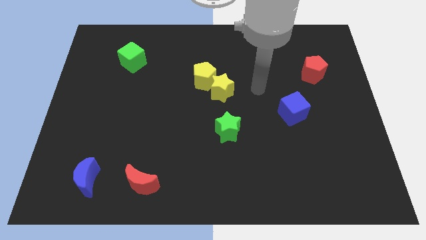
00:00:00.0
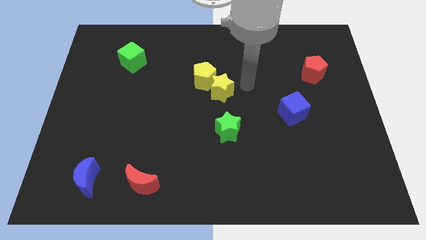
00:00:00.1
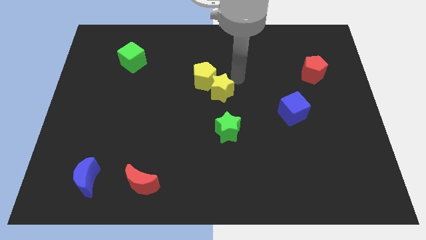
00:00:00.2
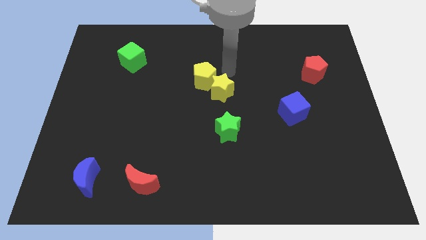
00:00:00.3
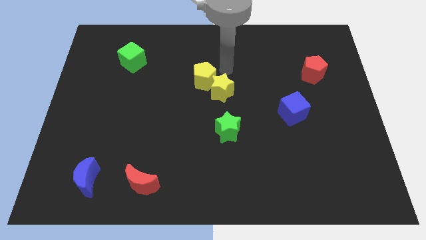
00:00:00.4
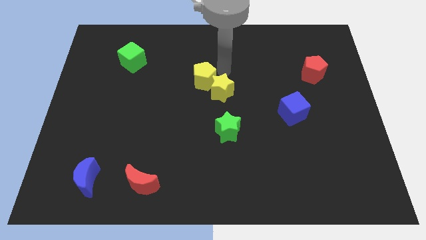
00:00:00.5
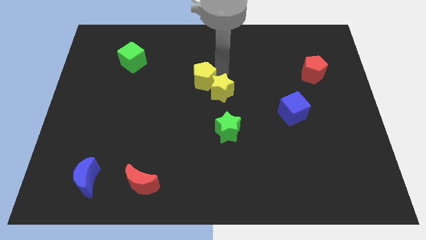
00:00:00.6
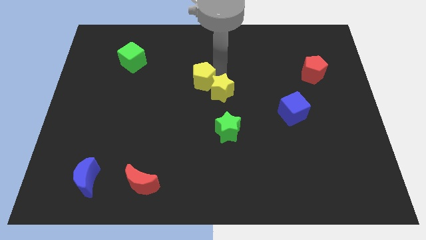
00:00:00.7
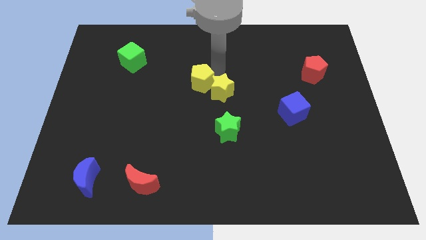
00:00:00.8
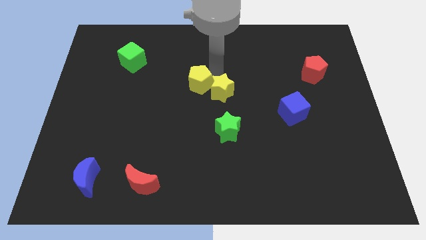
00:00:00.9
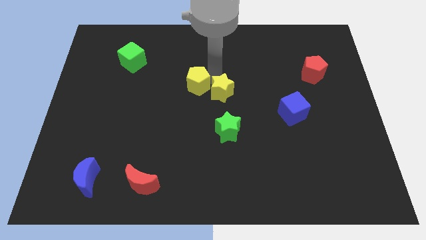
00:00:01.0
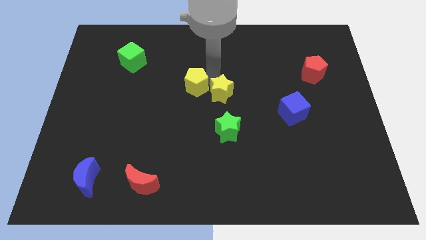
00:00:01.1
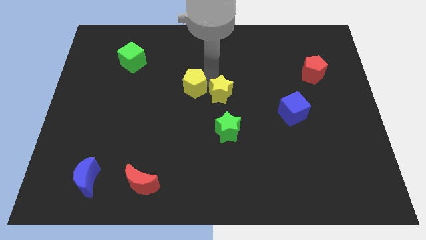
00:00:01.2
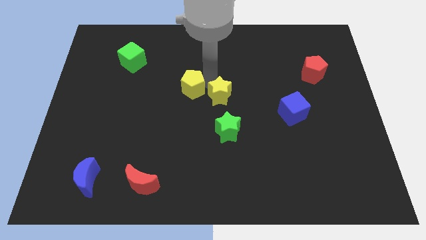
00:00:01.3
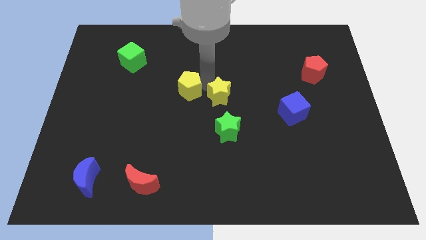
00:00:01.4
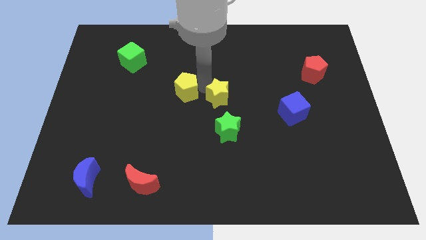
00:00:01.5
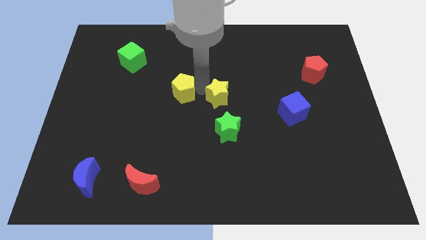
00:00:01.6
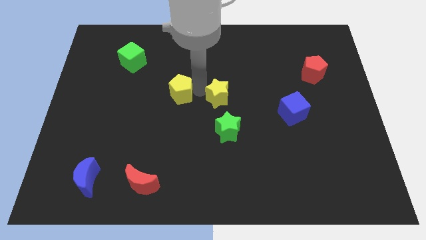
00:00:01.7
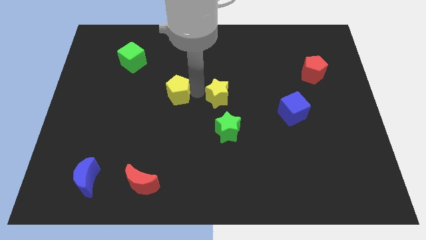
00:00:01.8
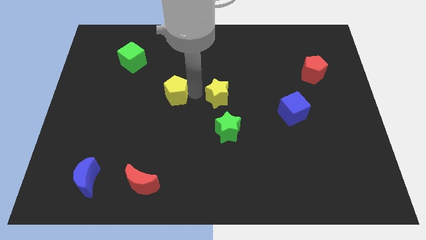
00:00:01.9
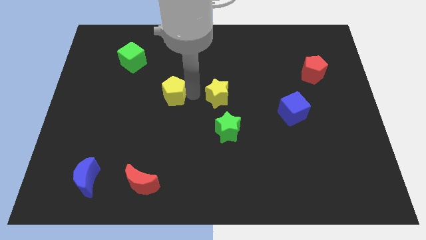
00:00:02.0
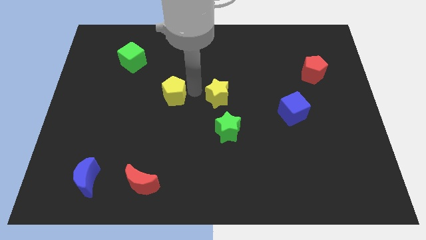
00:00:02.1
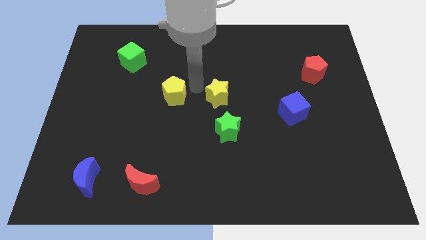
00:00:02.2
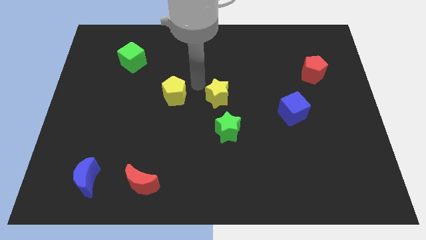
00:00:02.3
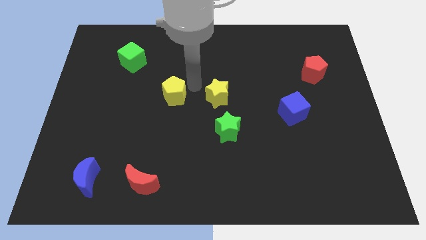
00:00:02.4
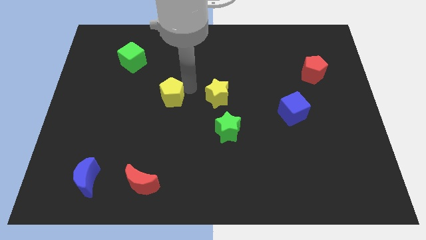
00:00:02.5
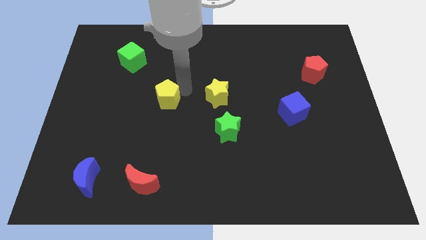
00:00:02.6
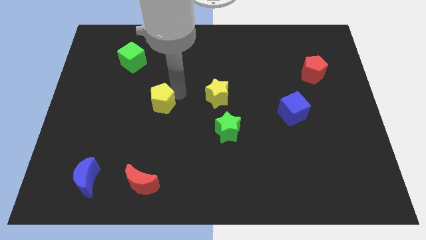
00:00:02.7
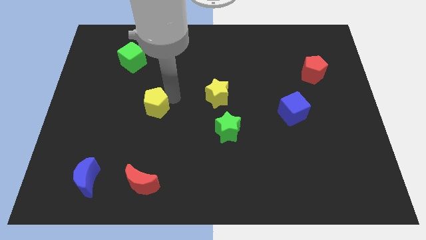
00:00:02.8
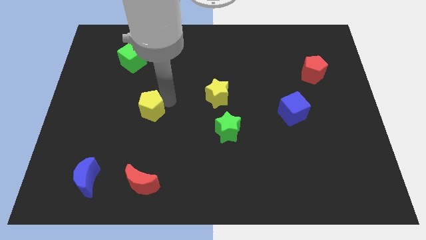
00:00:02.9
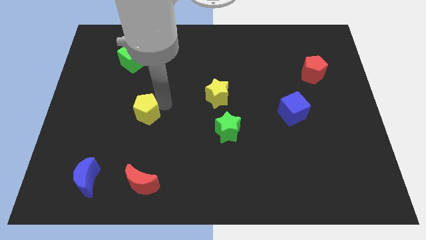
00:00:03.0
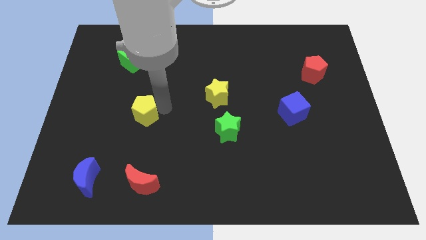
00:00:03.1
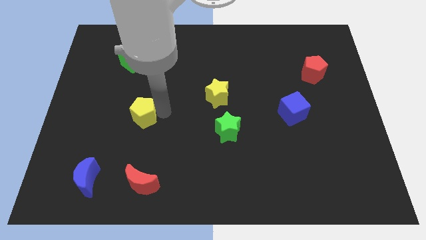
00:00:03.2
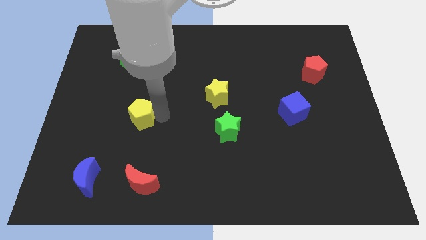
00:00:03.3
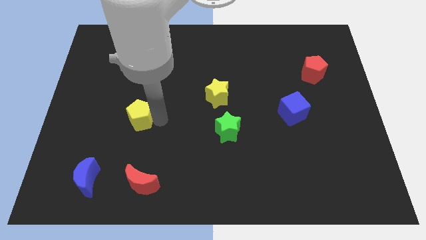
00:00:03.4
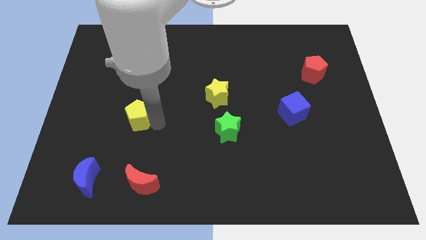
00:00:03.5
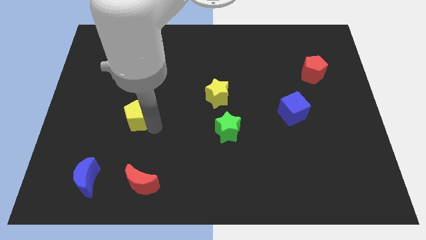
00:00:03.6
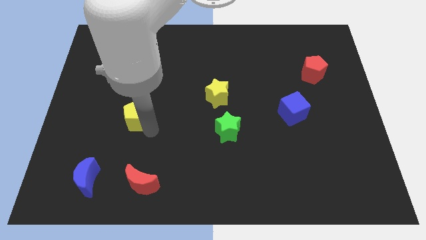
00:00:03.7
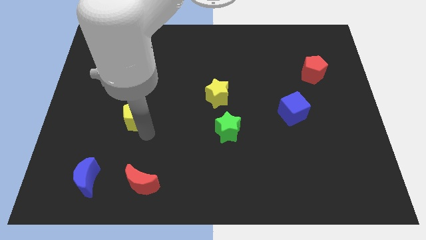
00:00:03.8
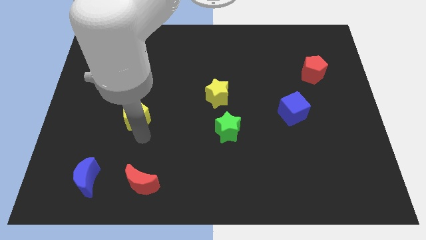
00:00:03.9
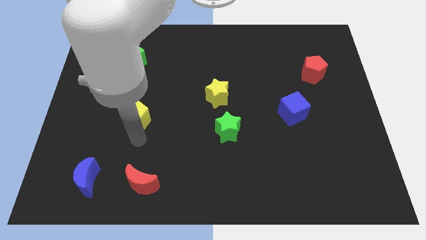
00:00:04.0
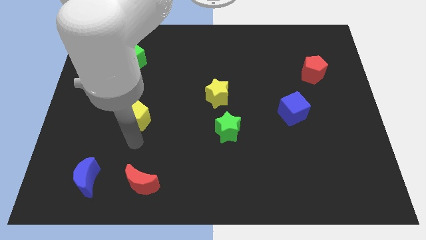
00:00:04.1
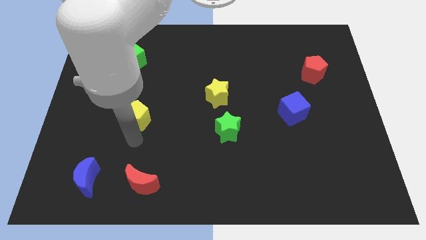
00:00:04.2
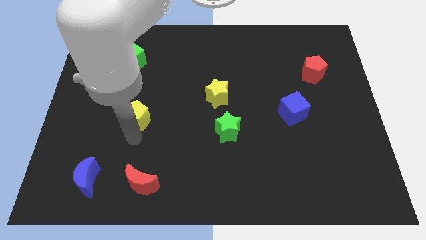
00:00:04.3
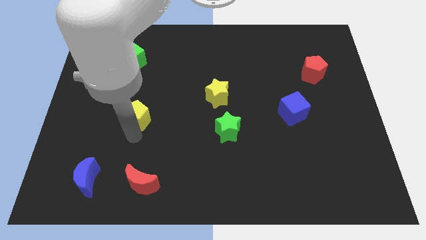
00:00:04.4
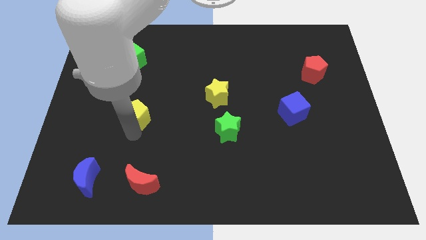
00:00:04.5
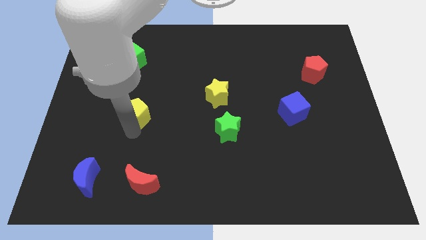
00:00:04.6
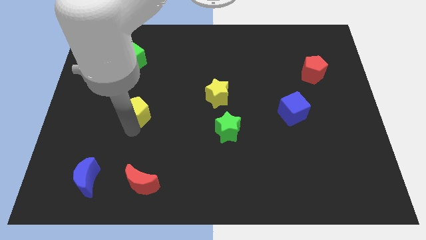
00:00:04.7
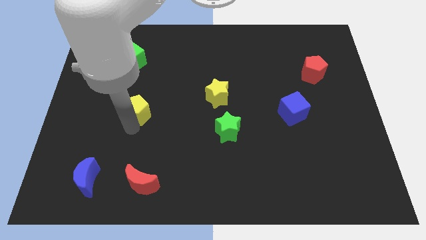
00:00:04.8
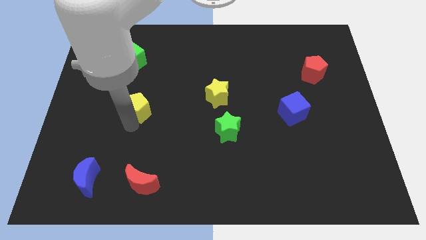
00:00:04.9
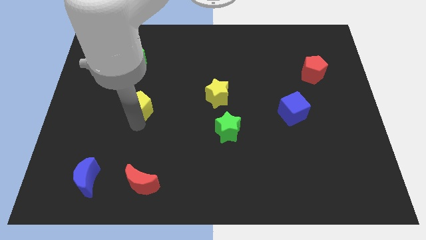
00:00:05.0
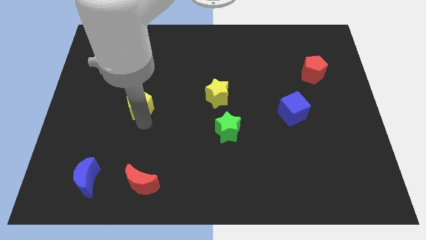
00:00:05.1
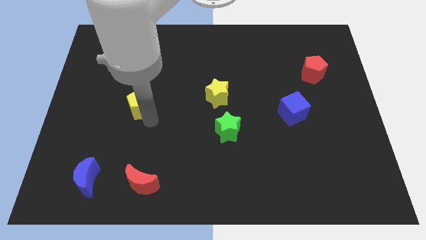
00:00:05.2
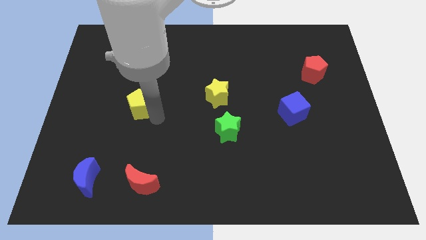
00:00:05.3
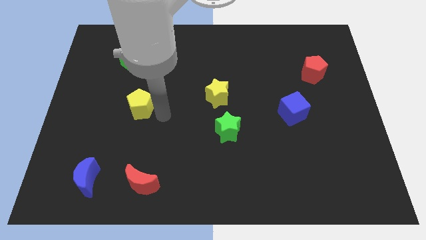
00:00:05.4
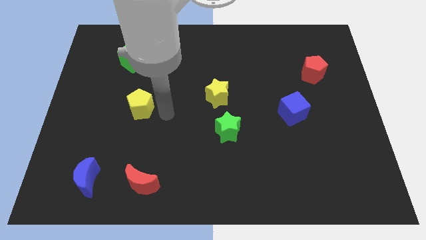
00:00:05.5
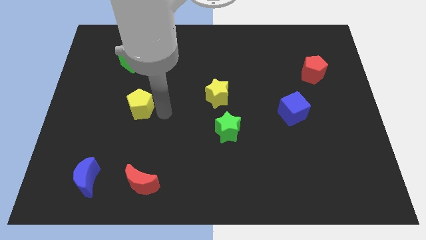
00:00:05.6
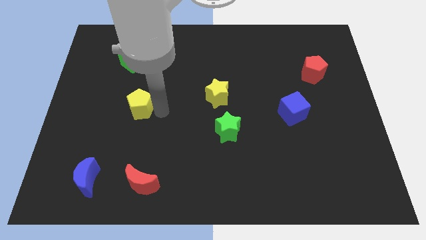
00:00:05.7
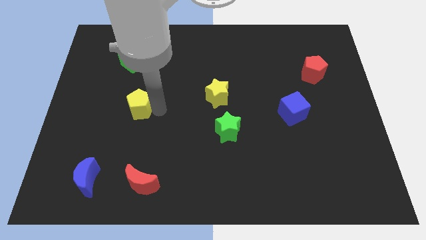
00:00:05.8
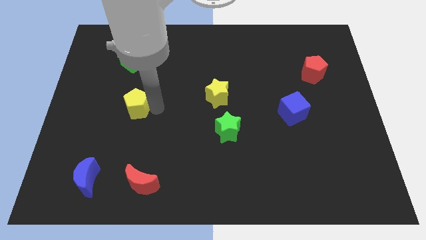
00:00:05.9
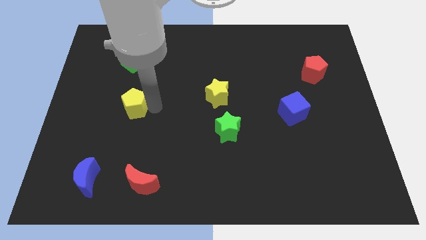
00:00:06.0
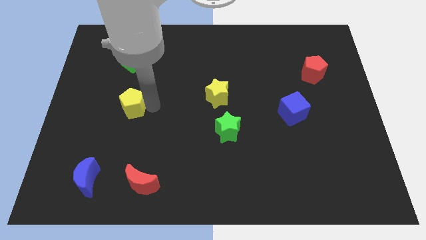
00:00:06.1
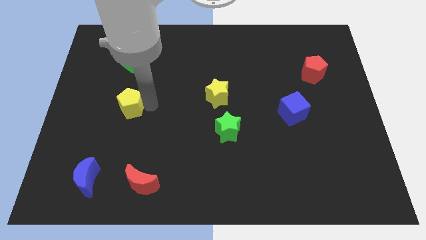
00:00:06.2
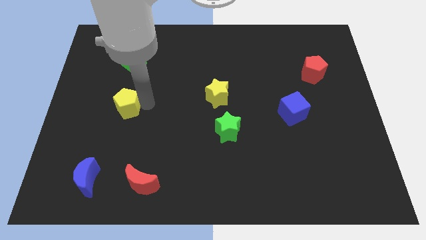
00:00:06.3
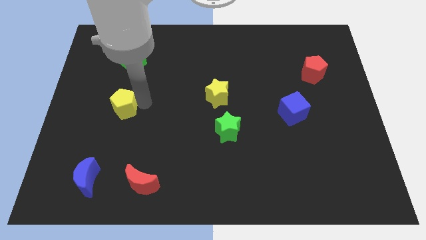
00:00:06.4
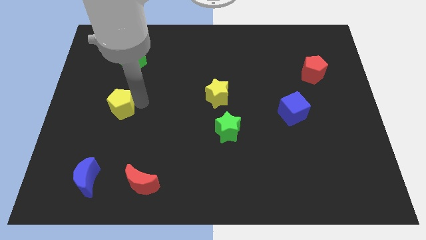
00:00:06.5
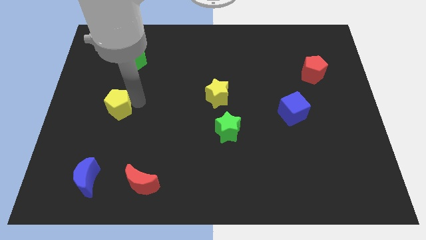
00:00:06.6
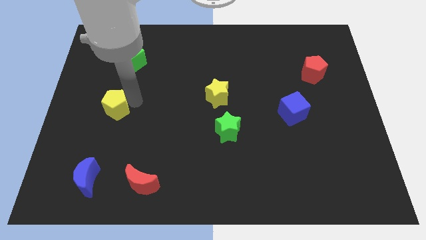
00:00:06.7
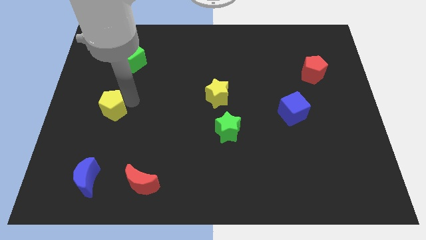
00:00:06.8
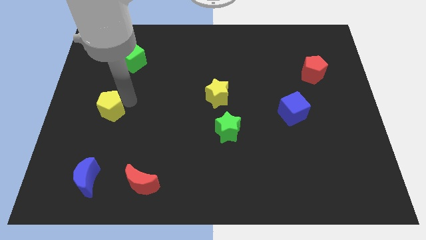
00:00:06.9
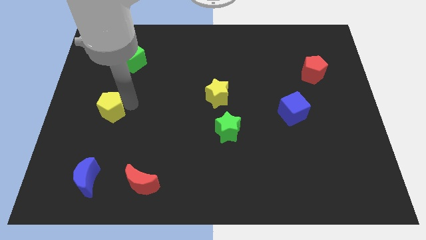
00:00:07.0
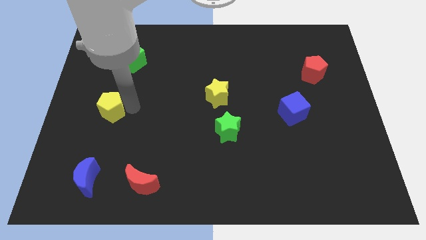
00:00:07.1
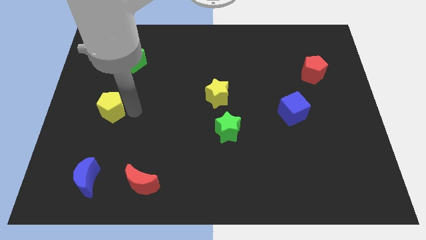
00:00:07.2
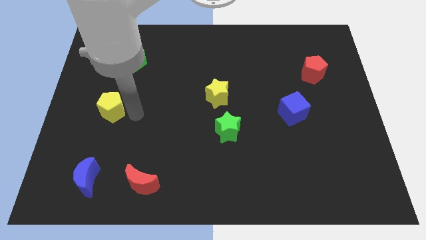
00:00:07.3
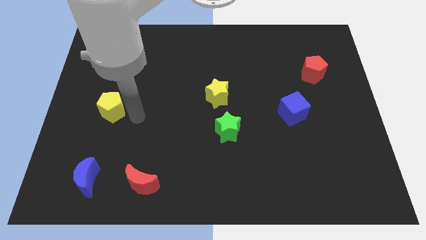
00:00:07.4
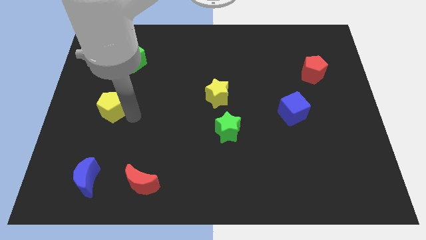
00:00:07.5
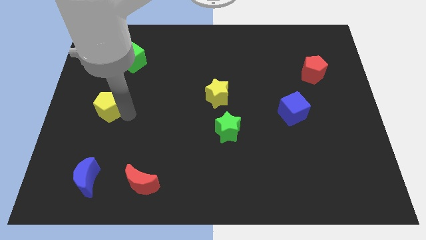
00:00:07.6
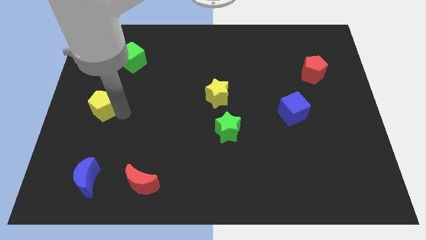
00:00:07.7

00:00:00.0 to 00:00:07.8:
move the yellow pentagon to the left side of the board
